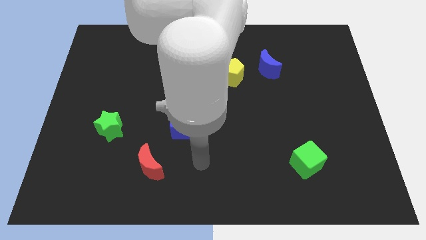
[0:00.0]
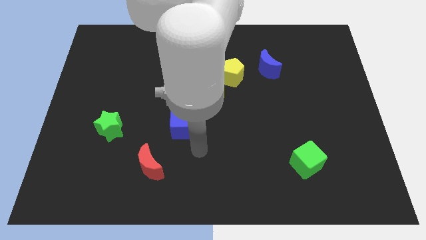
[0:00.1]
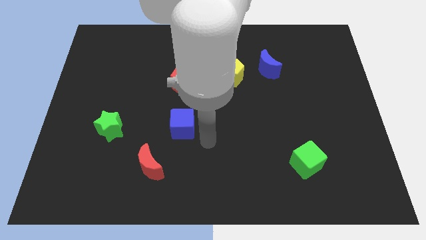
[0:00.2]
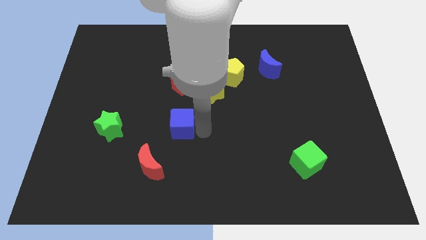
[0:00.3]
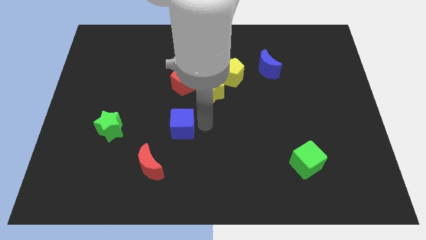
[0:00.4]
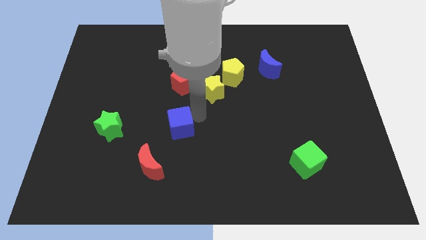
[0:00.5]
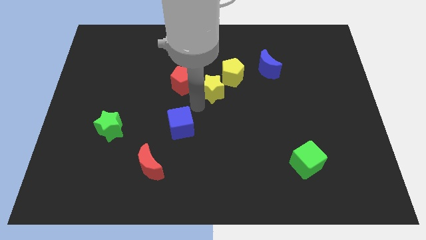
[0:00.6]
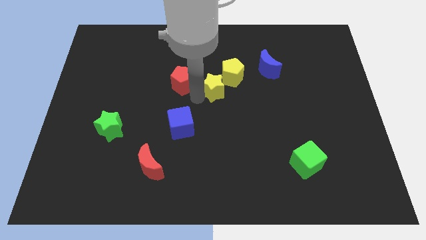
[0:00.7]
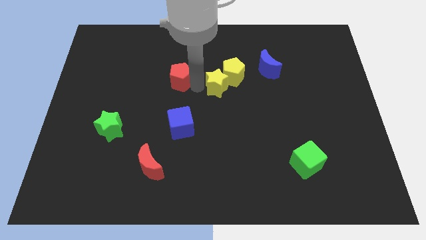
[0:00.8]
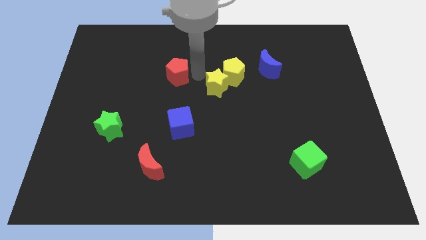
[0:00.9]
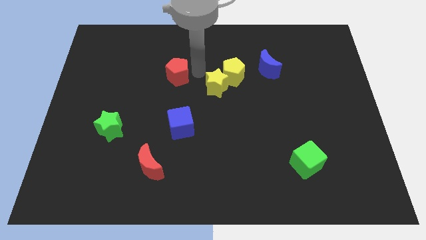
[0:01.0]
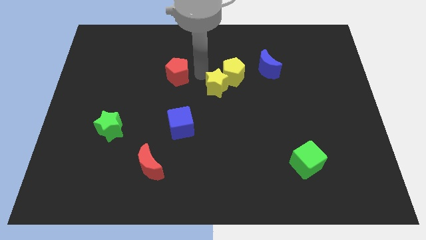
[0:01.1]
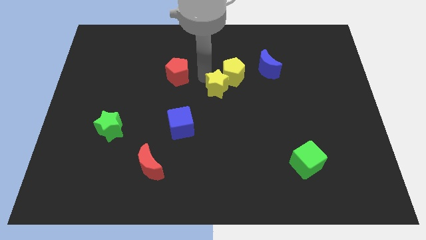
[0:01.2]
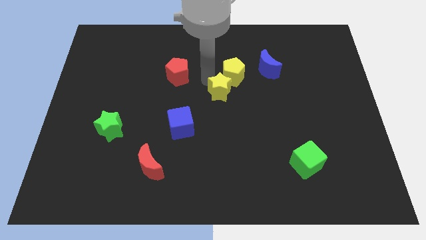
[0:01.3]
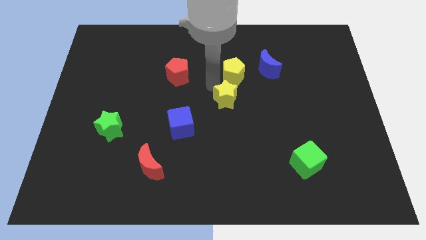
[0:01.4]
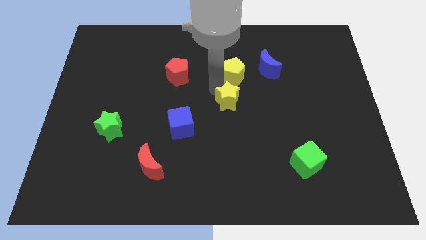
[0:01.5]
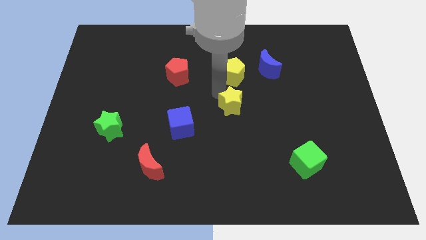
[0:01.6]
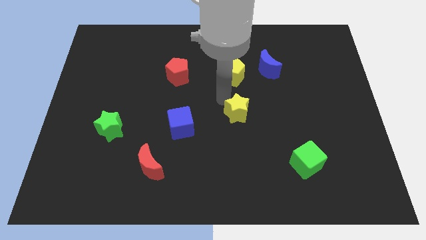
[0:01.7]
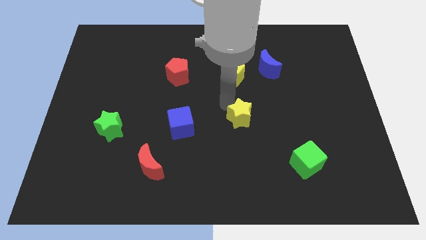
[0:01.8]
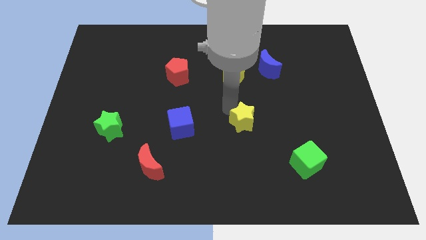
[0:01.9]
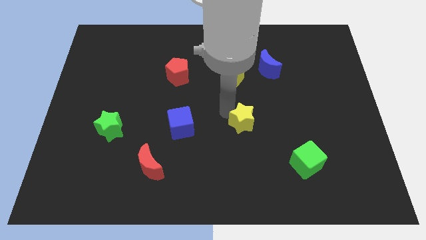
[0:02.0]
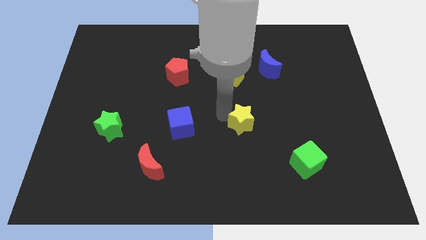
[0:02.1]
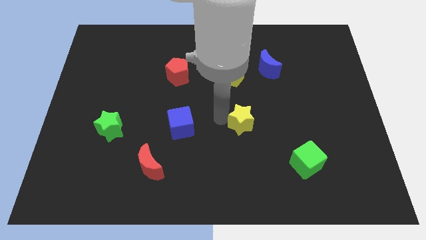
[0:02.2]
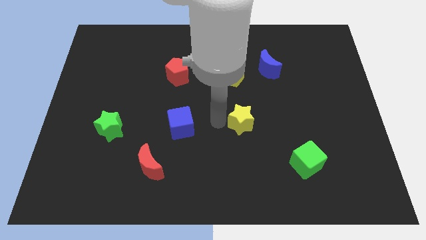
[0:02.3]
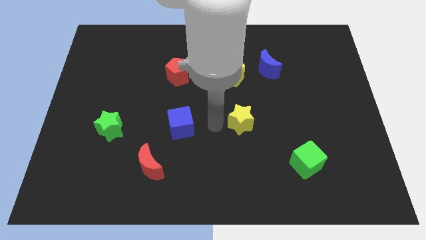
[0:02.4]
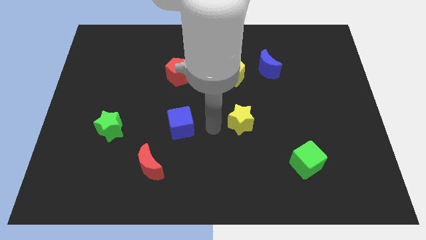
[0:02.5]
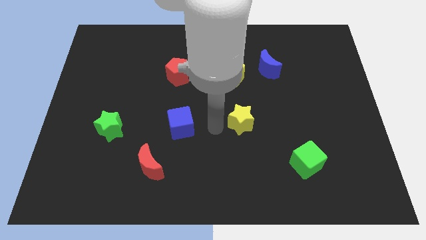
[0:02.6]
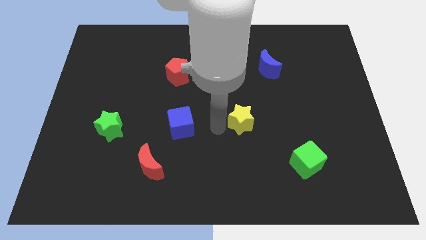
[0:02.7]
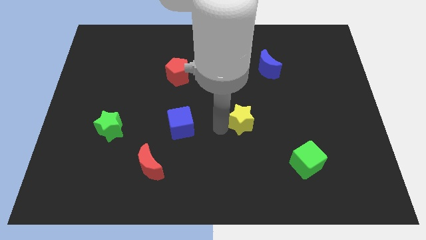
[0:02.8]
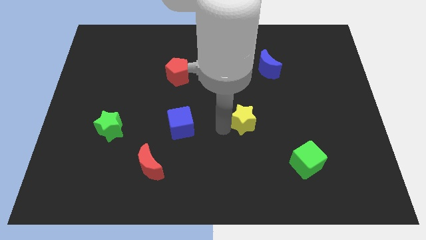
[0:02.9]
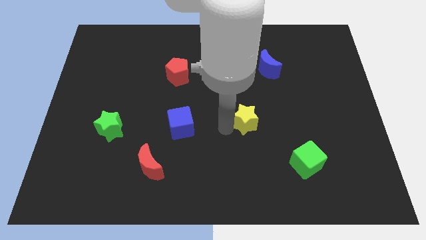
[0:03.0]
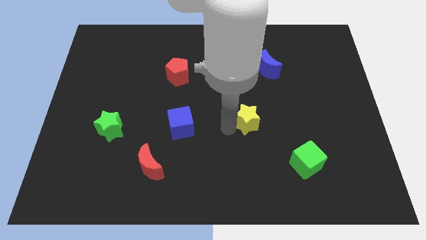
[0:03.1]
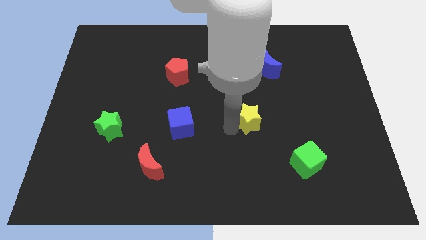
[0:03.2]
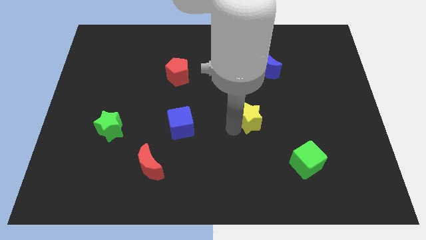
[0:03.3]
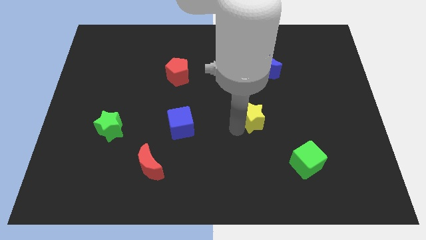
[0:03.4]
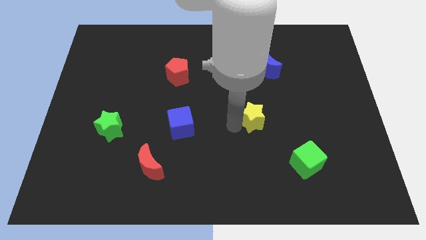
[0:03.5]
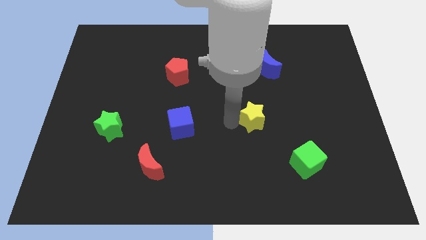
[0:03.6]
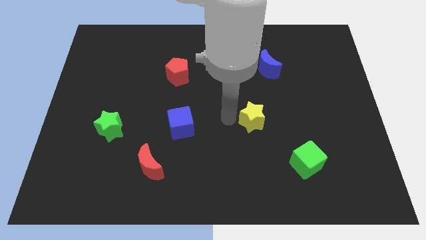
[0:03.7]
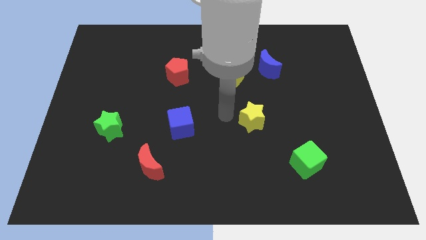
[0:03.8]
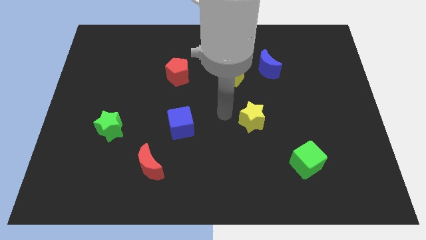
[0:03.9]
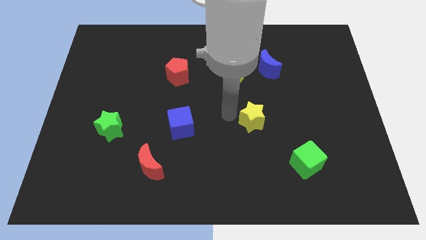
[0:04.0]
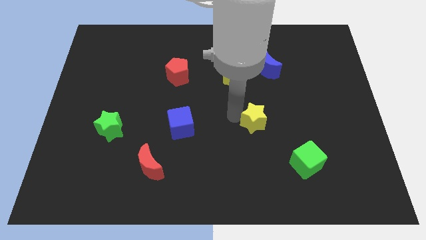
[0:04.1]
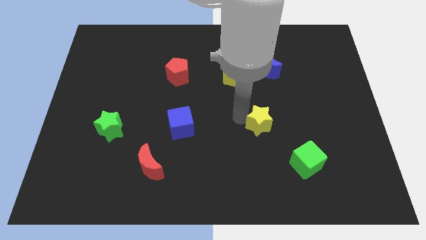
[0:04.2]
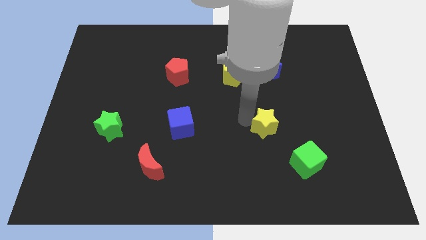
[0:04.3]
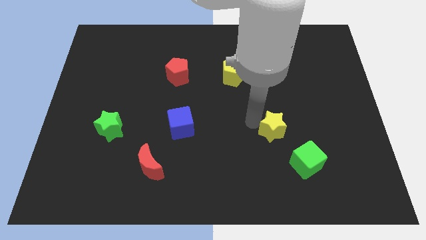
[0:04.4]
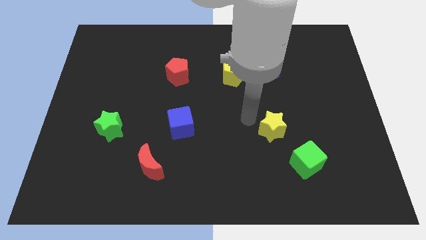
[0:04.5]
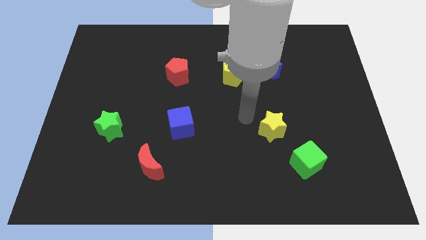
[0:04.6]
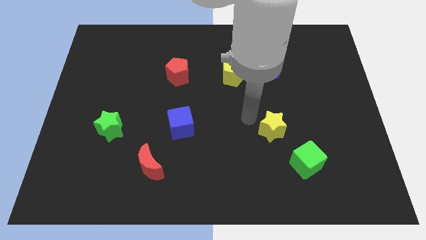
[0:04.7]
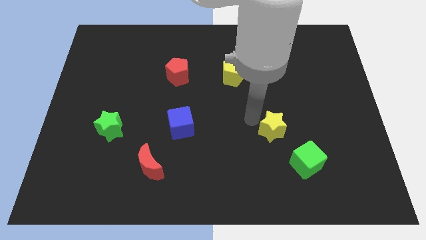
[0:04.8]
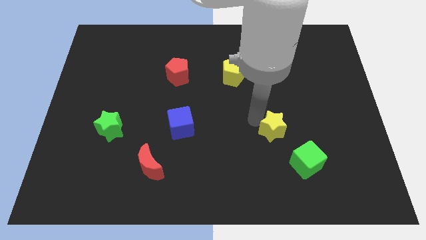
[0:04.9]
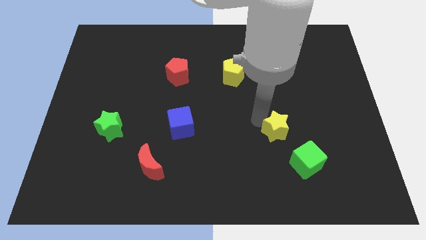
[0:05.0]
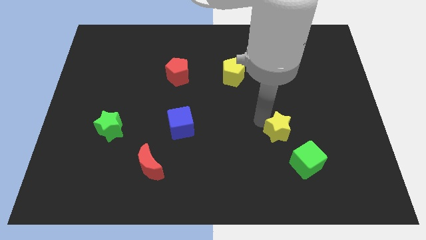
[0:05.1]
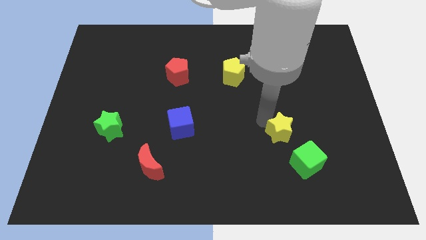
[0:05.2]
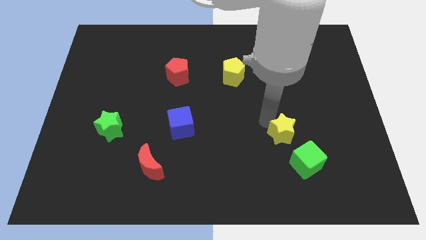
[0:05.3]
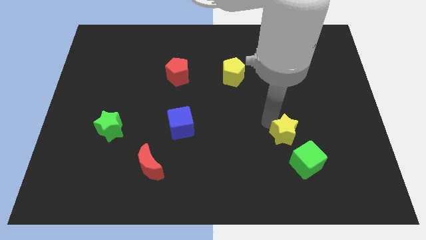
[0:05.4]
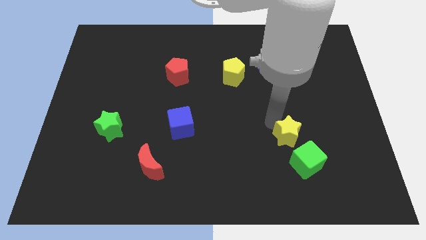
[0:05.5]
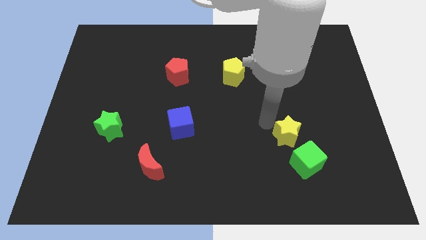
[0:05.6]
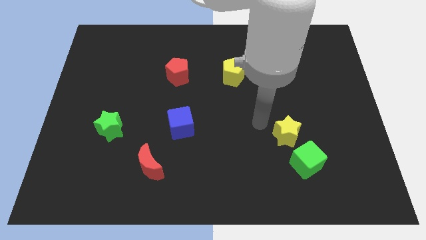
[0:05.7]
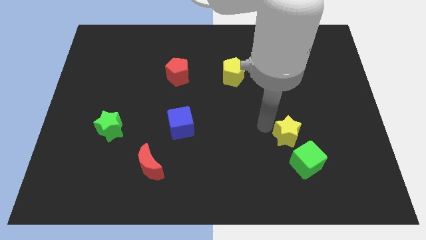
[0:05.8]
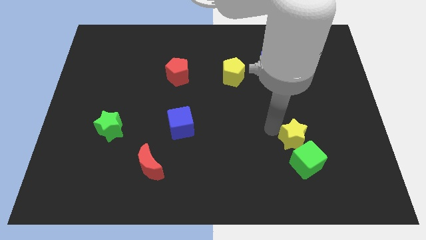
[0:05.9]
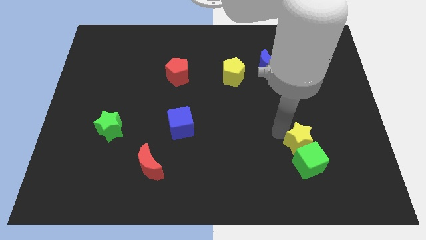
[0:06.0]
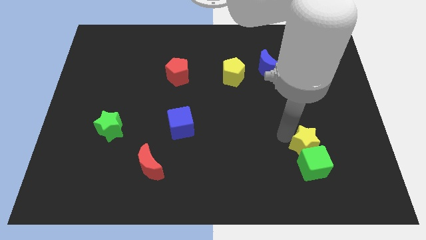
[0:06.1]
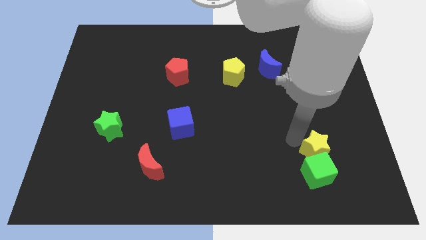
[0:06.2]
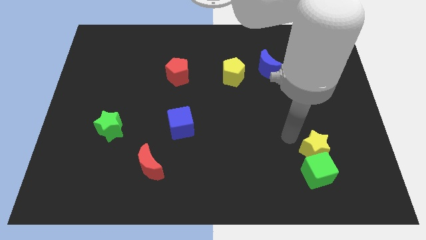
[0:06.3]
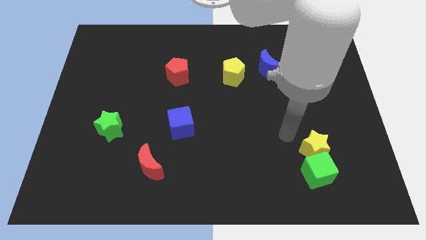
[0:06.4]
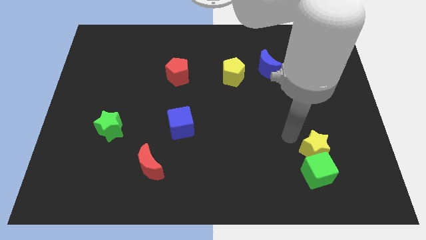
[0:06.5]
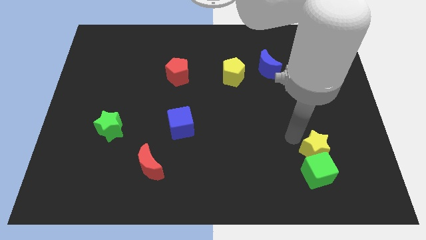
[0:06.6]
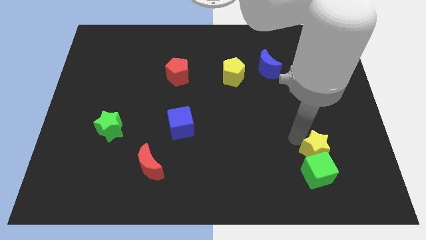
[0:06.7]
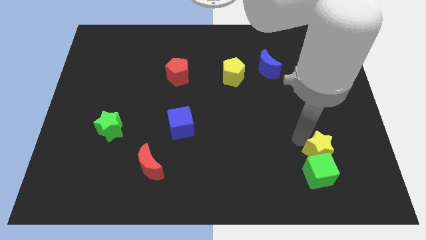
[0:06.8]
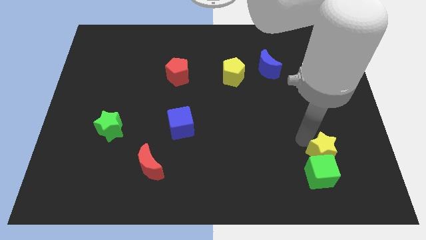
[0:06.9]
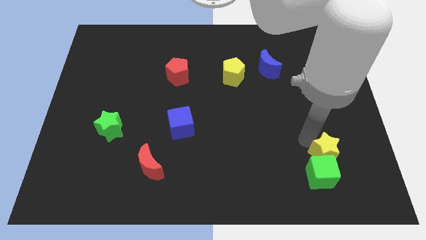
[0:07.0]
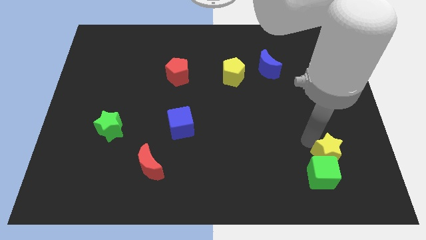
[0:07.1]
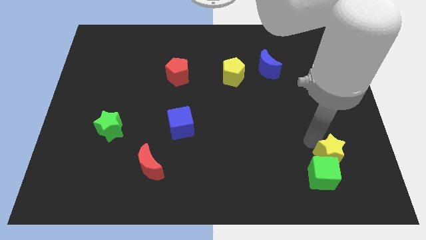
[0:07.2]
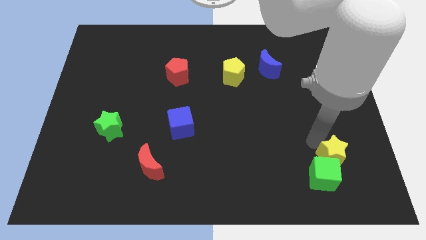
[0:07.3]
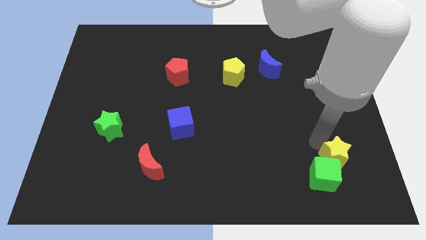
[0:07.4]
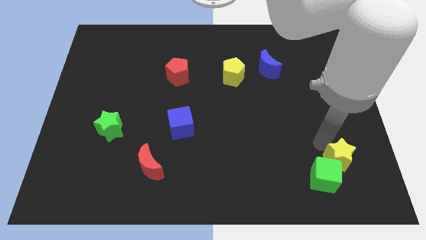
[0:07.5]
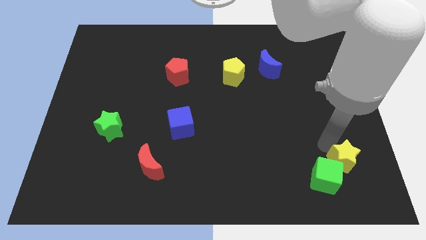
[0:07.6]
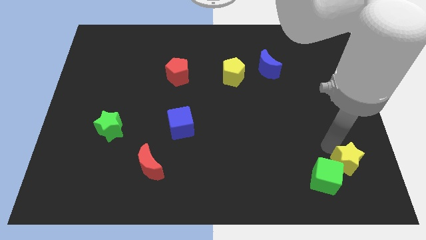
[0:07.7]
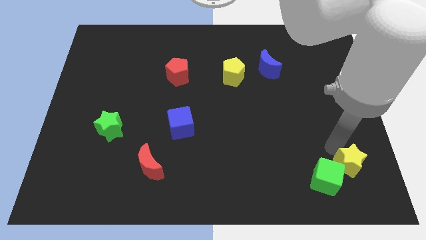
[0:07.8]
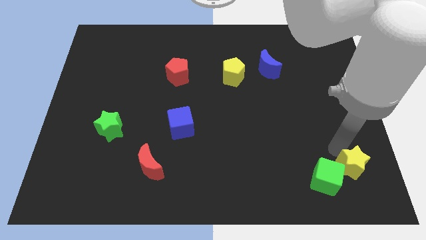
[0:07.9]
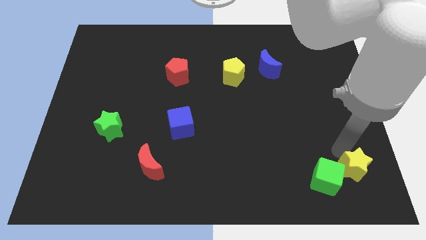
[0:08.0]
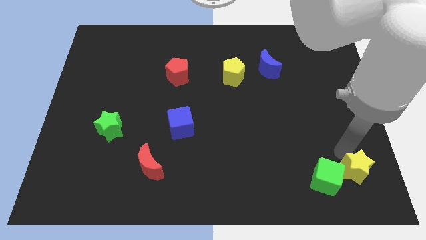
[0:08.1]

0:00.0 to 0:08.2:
push the yellow star to the bottom right of the board
